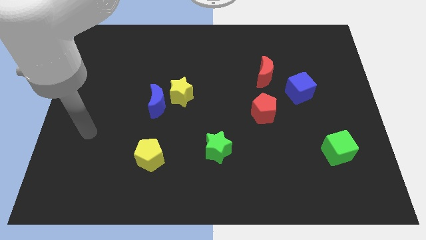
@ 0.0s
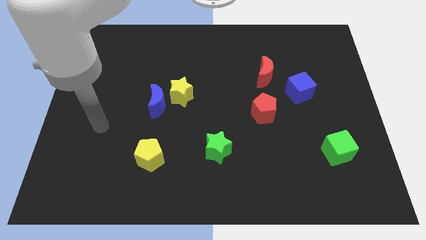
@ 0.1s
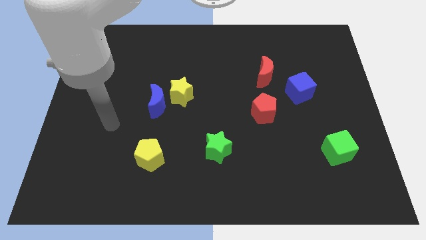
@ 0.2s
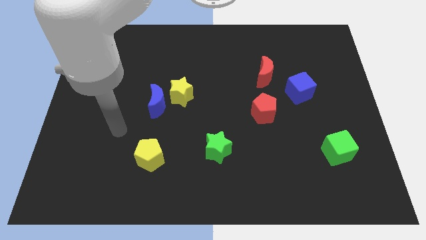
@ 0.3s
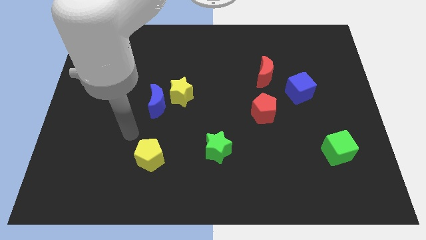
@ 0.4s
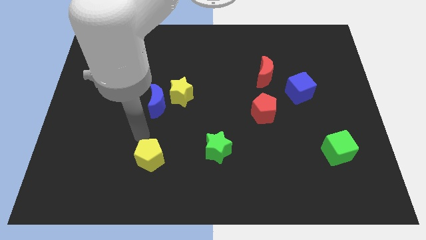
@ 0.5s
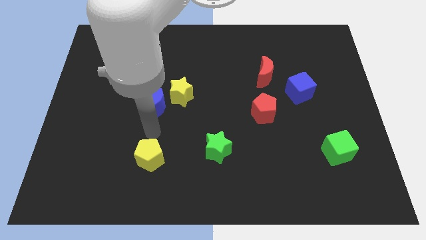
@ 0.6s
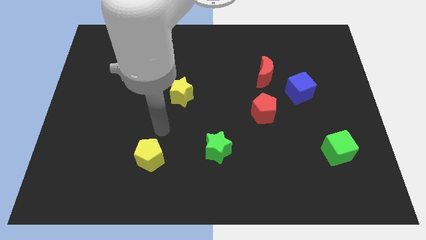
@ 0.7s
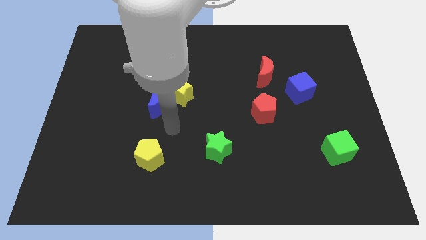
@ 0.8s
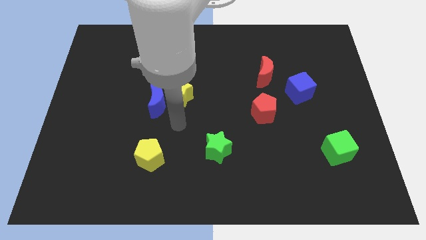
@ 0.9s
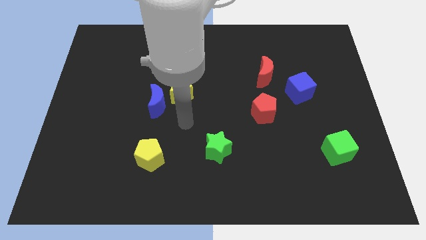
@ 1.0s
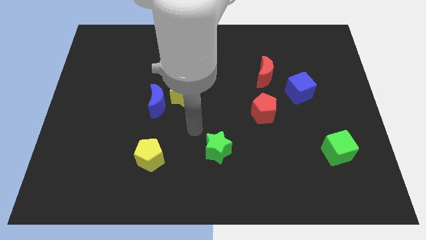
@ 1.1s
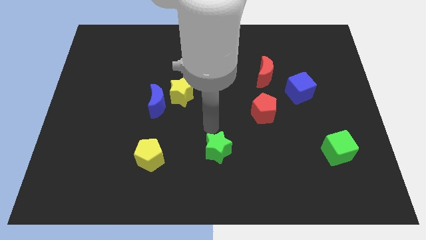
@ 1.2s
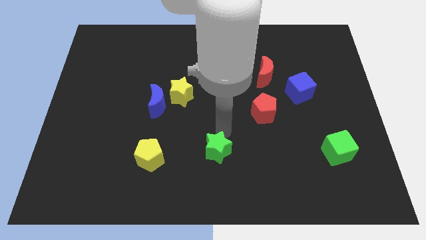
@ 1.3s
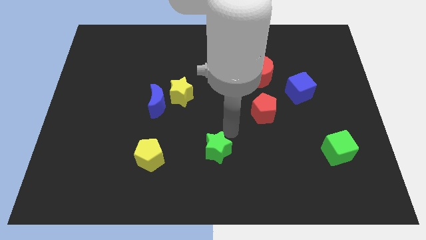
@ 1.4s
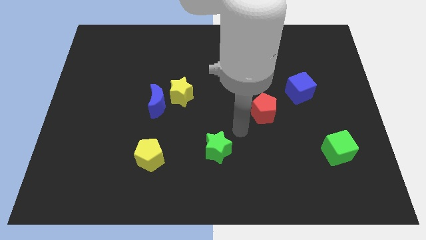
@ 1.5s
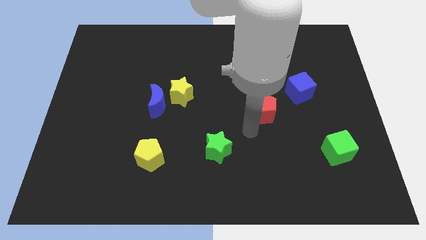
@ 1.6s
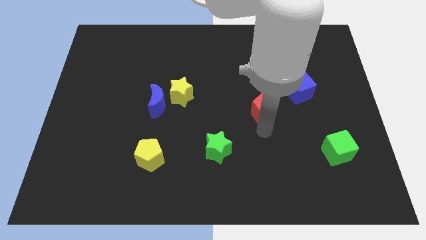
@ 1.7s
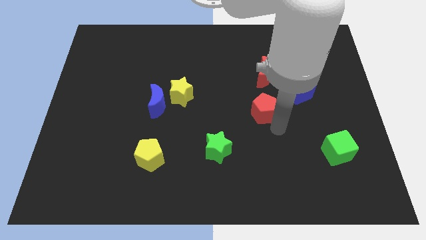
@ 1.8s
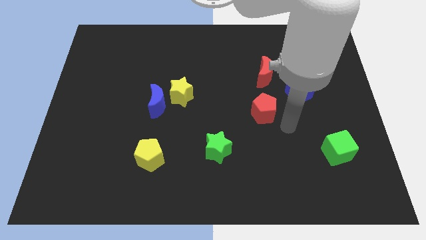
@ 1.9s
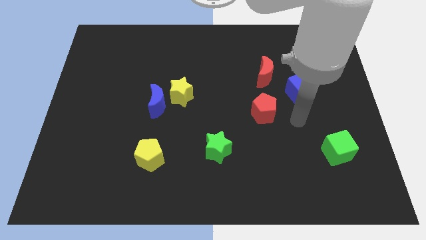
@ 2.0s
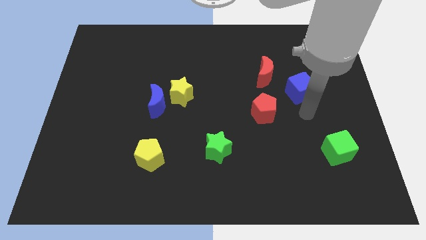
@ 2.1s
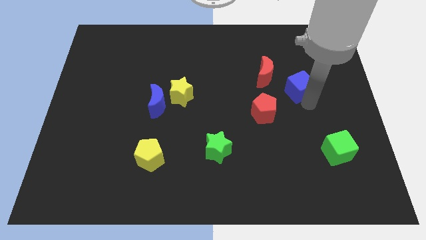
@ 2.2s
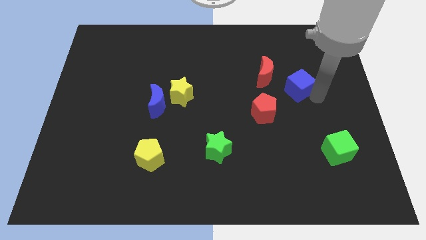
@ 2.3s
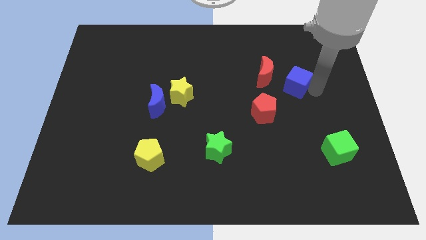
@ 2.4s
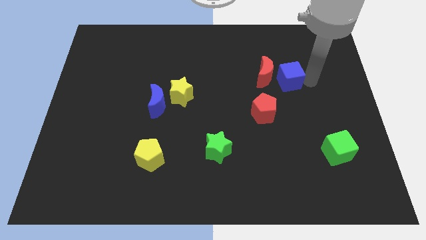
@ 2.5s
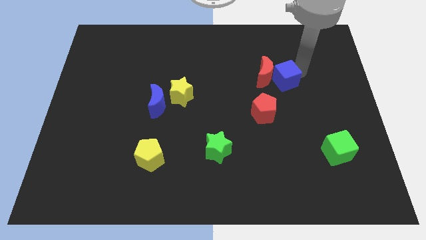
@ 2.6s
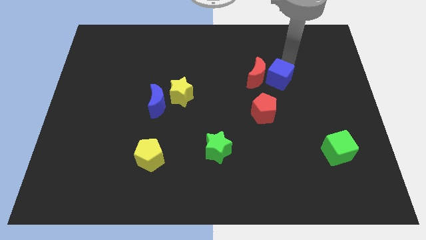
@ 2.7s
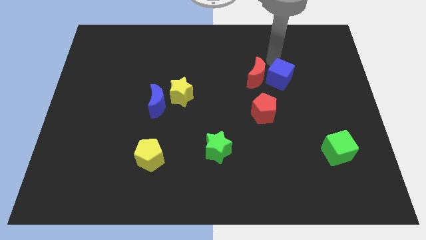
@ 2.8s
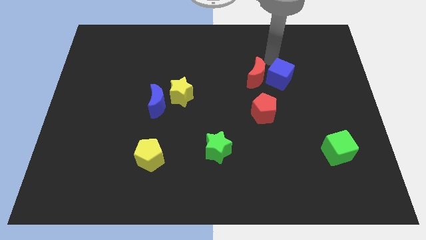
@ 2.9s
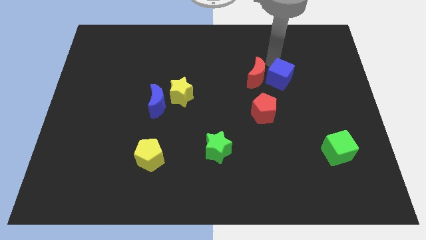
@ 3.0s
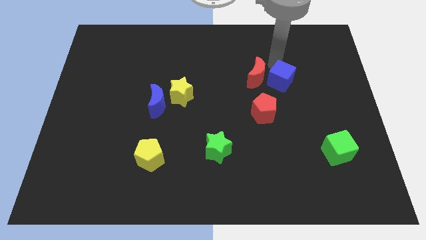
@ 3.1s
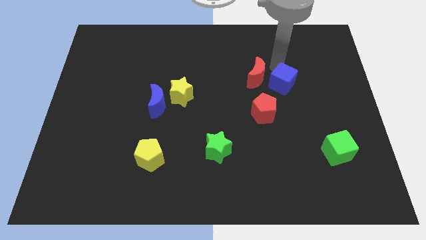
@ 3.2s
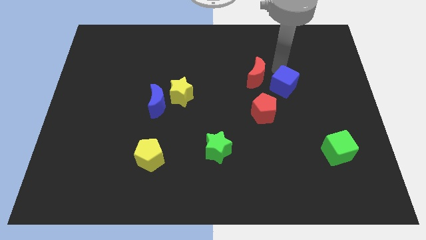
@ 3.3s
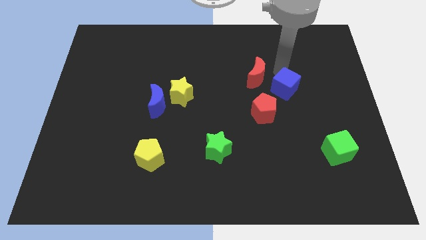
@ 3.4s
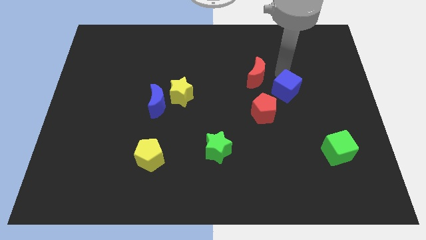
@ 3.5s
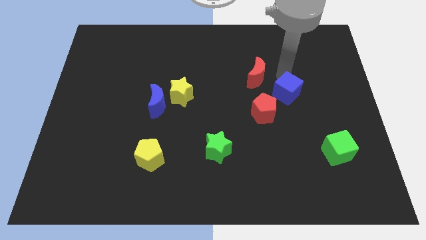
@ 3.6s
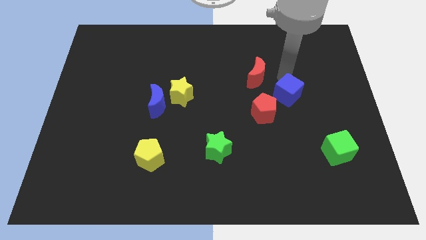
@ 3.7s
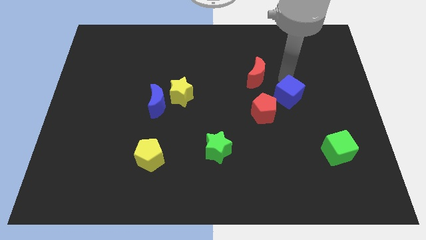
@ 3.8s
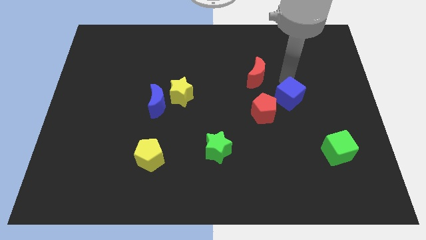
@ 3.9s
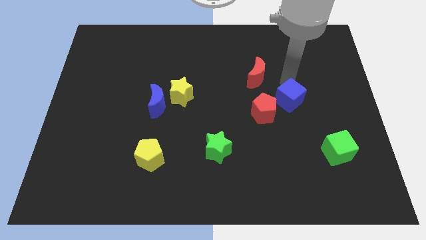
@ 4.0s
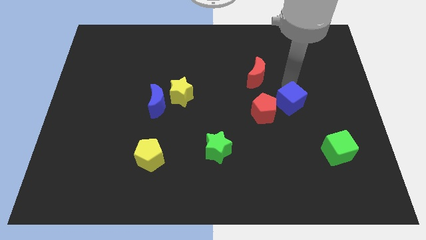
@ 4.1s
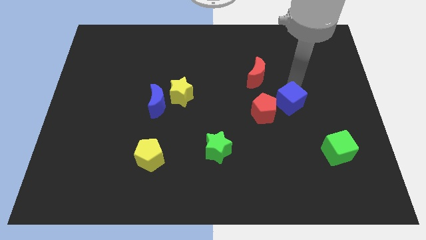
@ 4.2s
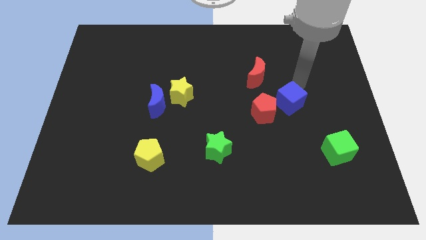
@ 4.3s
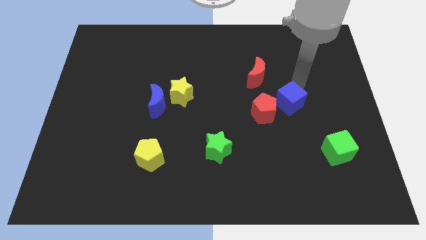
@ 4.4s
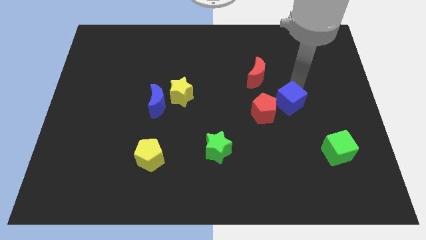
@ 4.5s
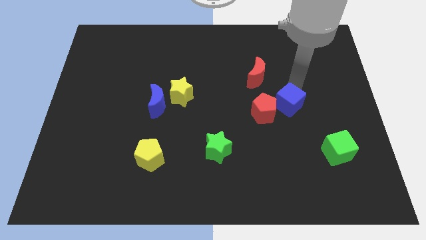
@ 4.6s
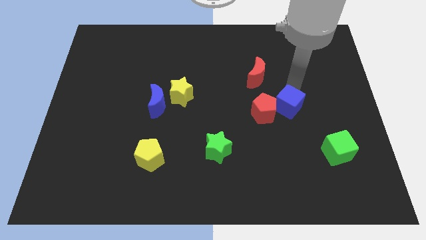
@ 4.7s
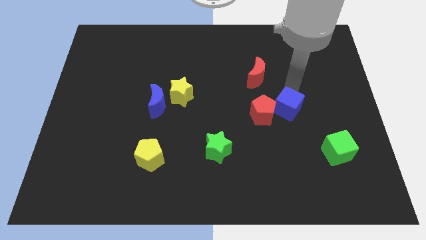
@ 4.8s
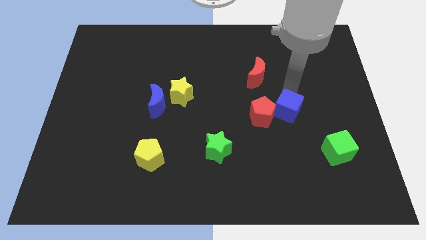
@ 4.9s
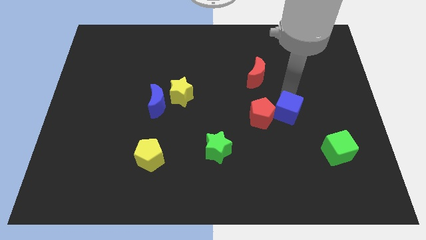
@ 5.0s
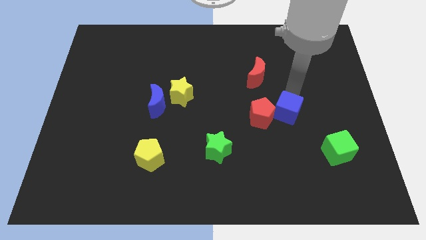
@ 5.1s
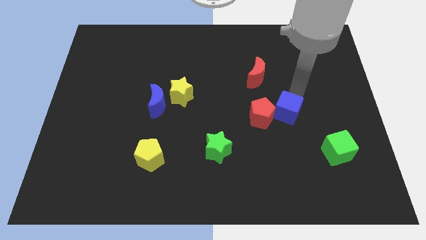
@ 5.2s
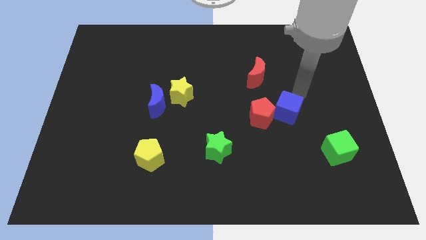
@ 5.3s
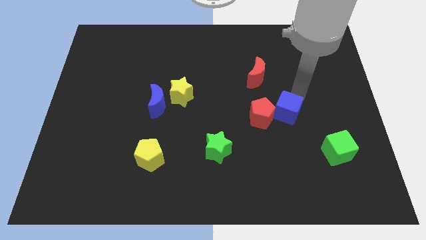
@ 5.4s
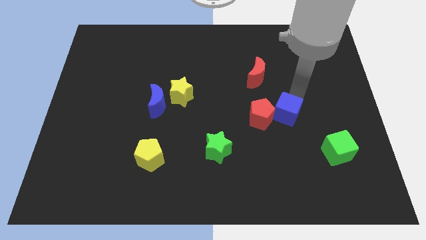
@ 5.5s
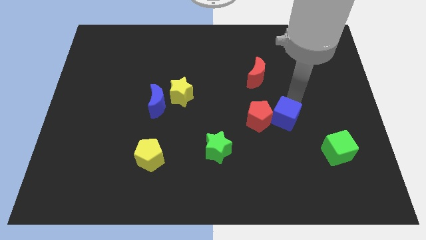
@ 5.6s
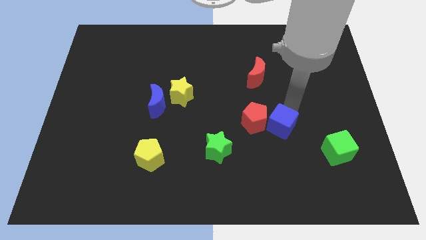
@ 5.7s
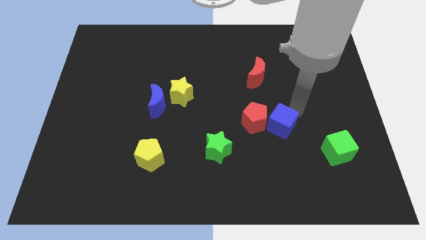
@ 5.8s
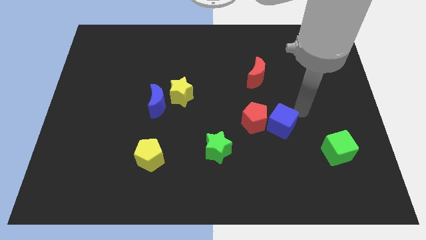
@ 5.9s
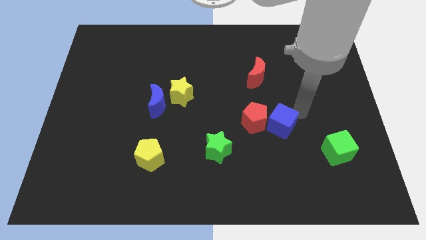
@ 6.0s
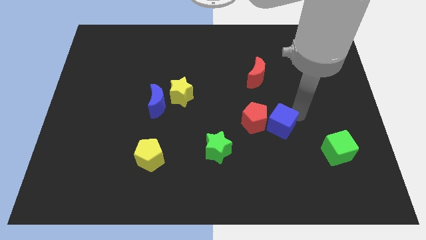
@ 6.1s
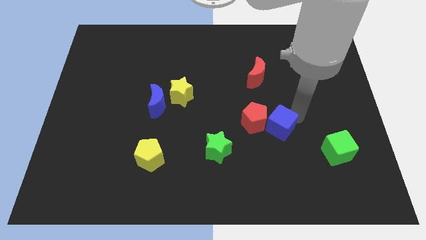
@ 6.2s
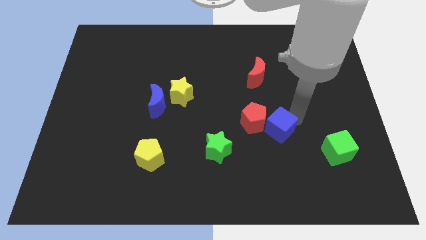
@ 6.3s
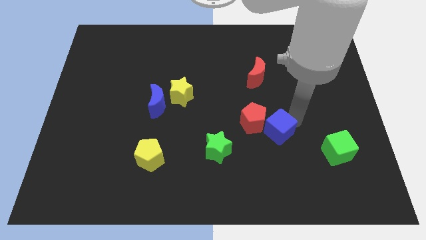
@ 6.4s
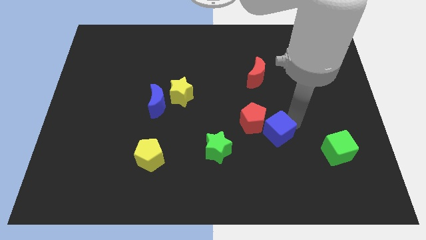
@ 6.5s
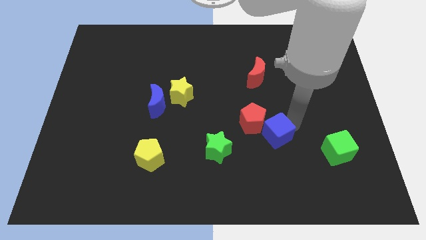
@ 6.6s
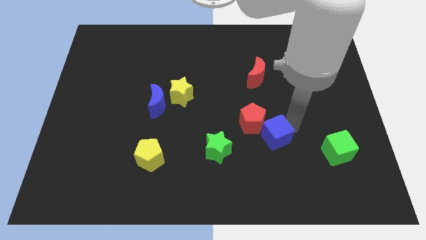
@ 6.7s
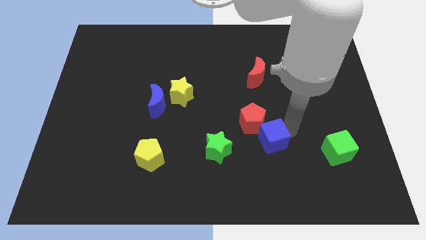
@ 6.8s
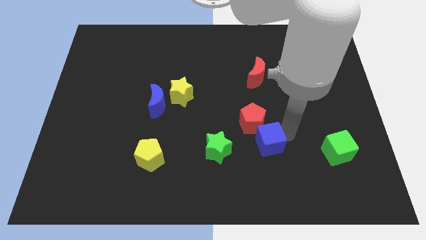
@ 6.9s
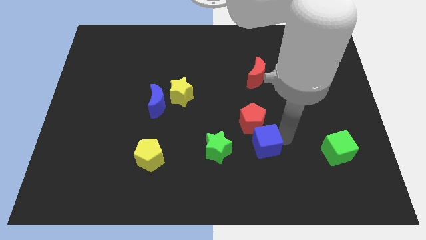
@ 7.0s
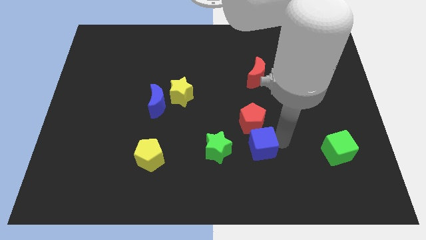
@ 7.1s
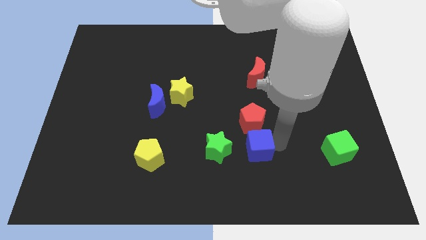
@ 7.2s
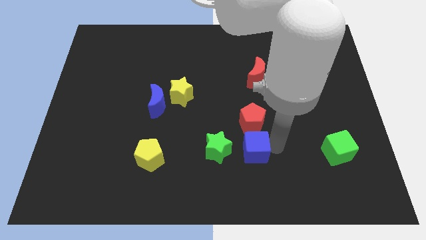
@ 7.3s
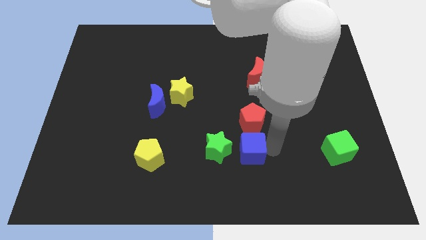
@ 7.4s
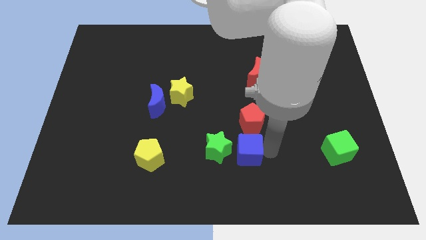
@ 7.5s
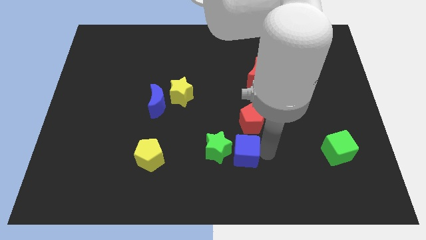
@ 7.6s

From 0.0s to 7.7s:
put the blue cube to the green star
